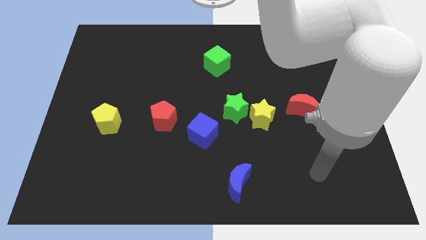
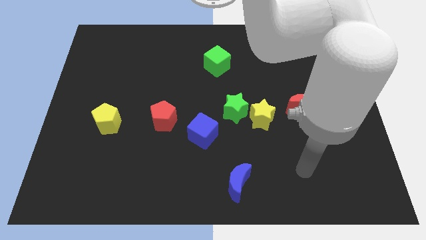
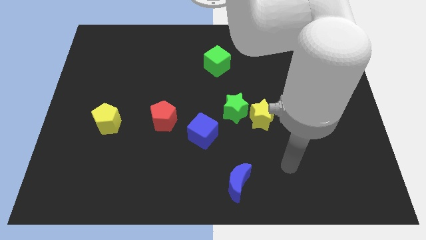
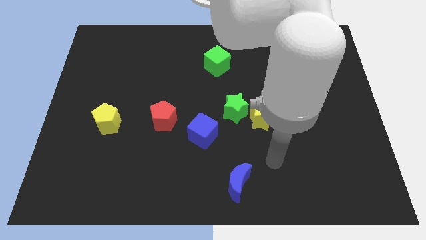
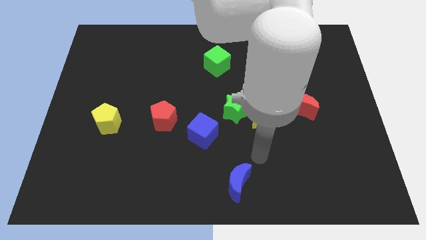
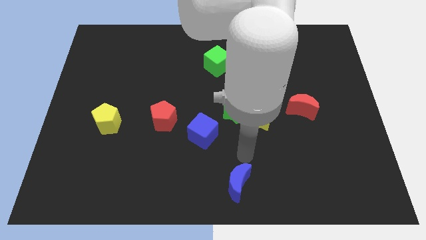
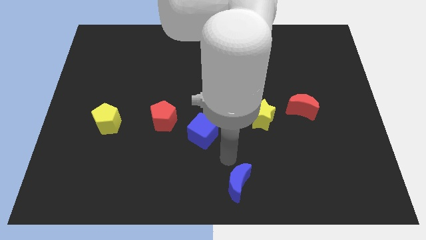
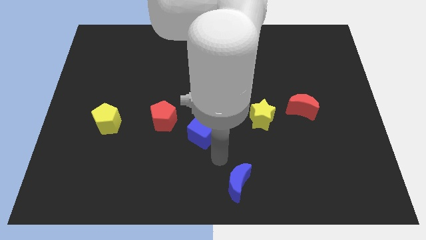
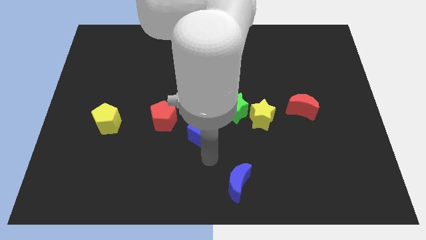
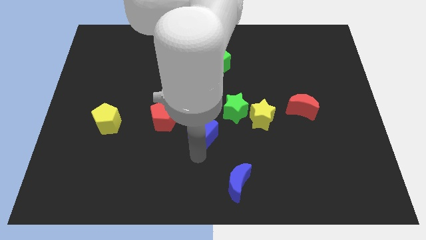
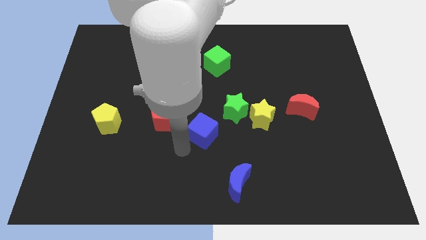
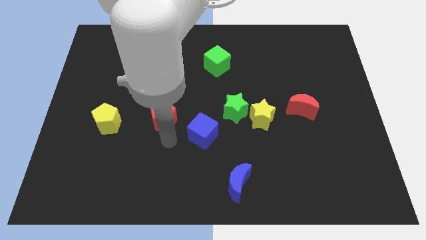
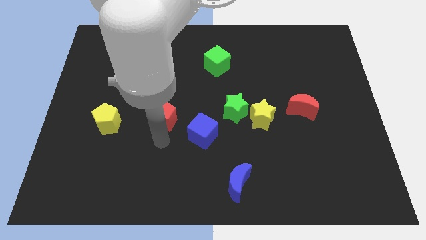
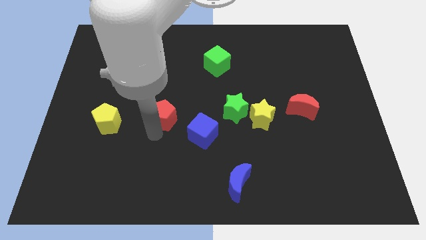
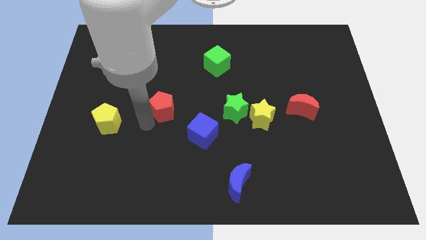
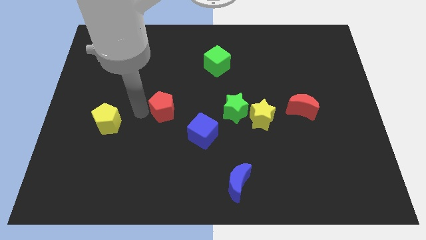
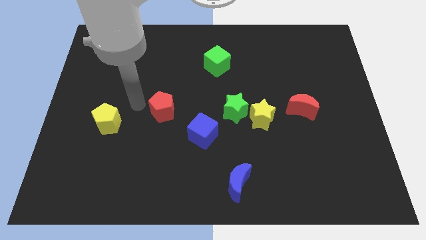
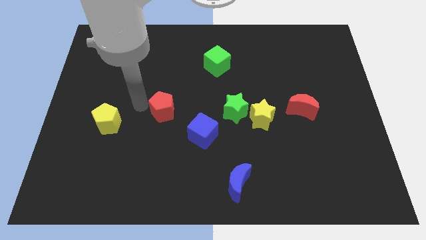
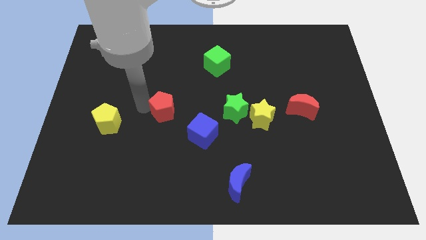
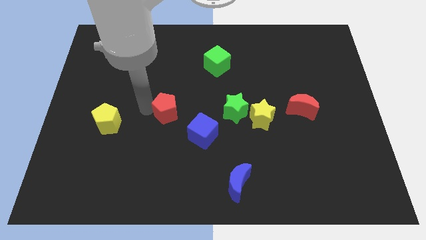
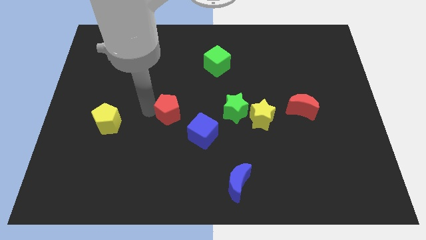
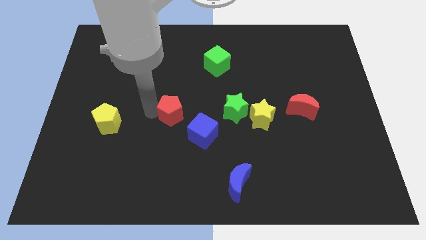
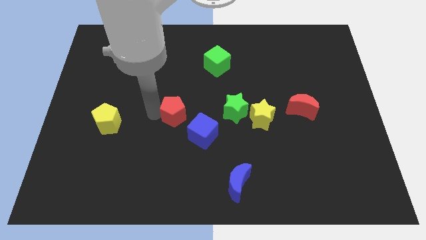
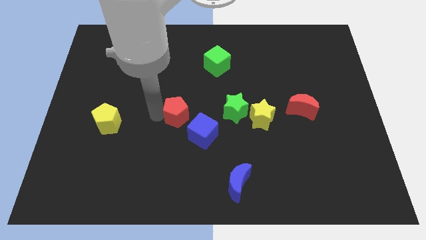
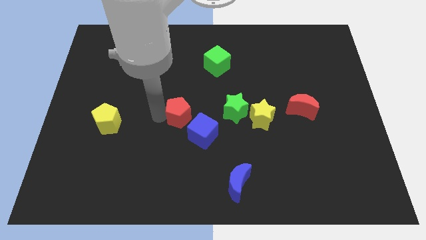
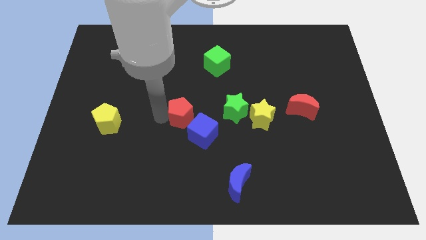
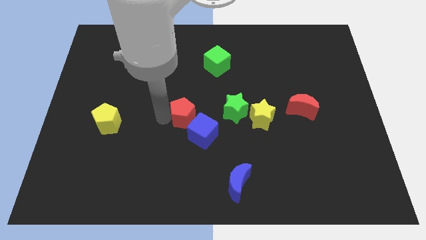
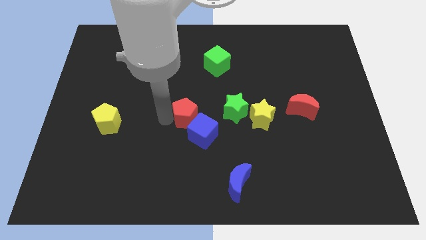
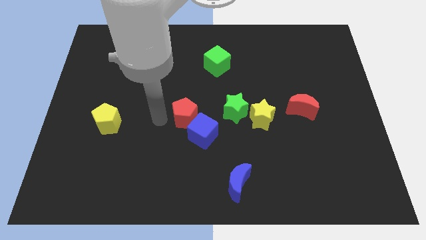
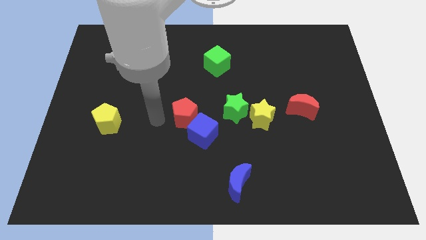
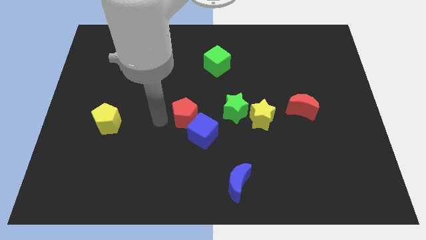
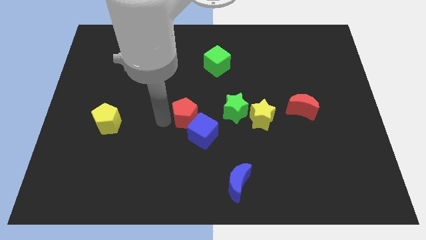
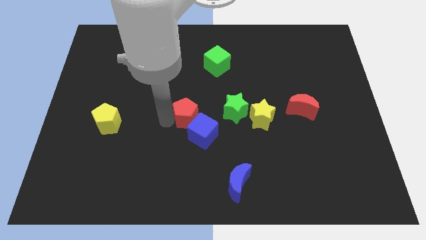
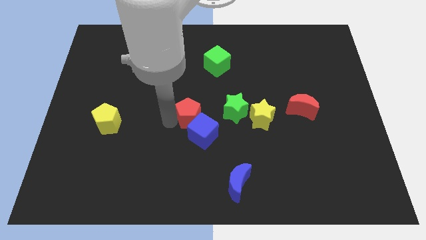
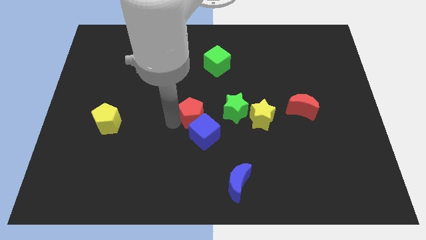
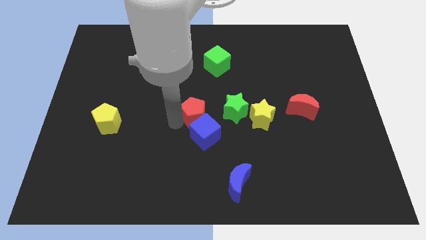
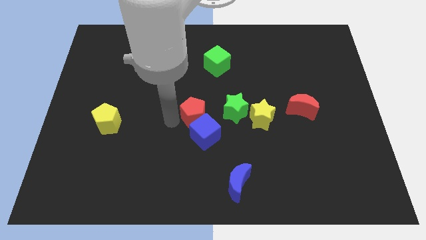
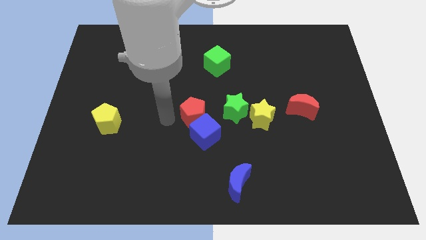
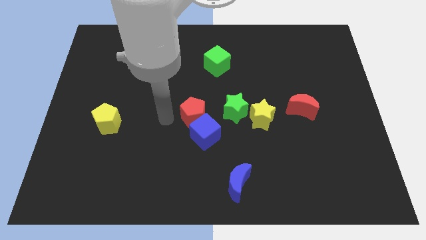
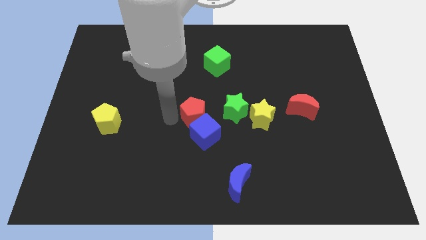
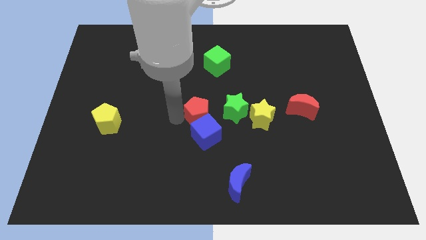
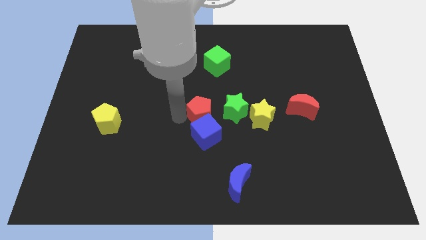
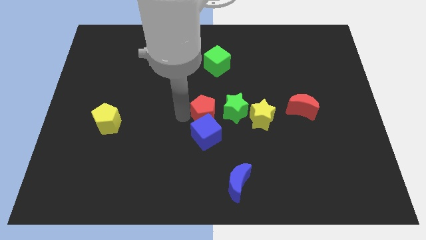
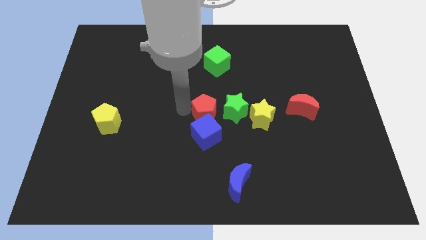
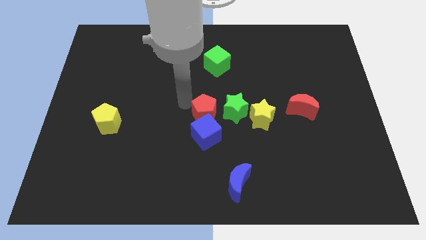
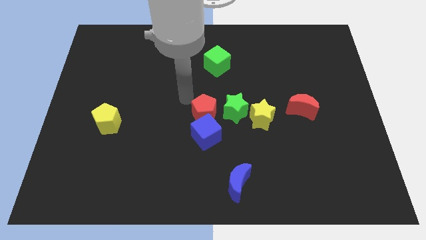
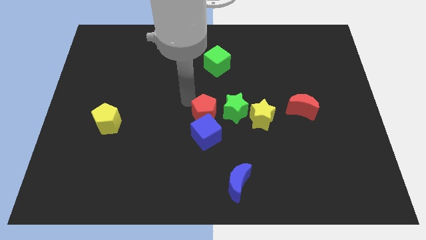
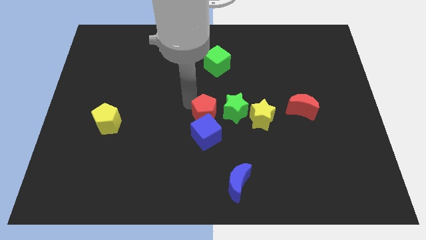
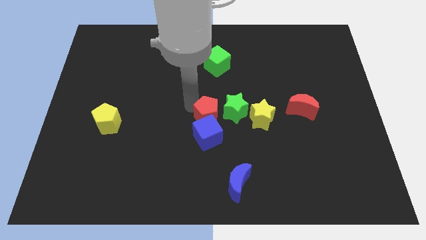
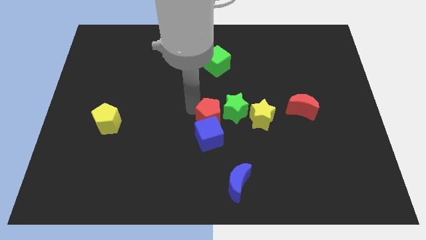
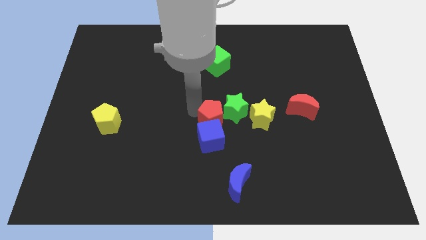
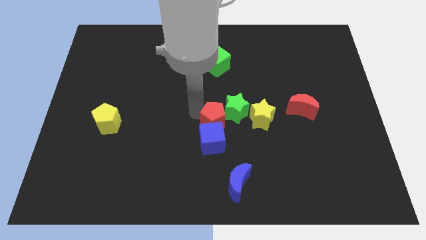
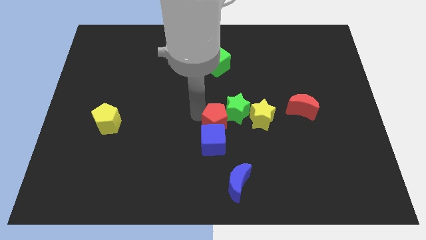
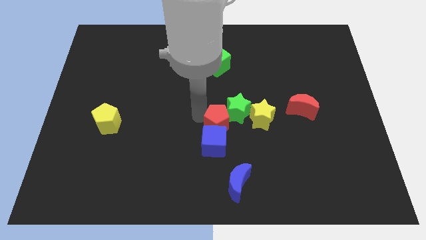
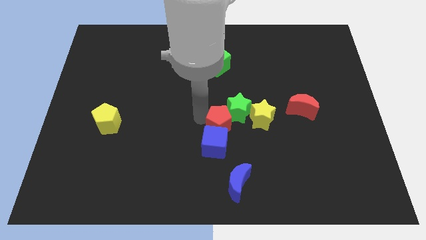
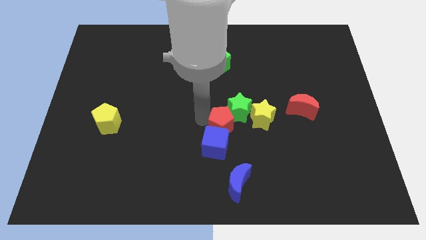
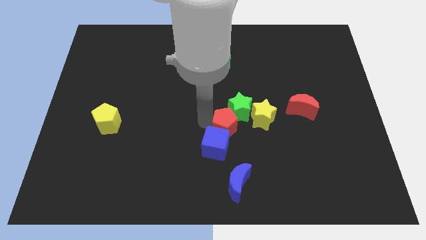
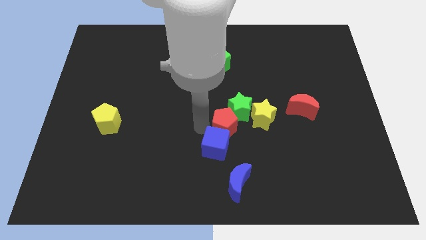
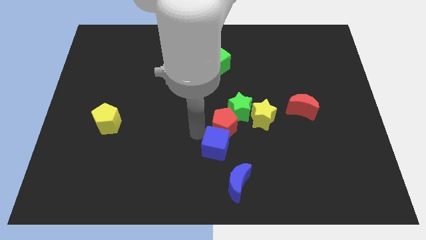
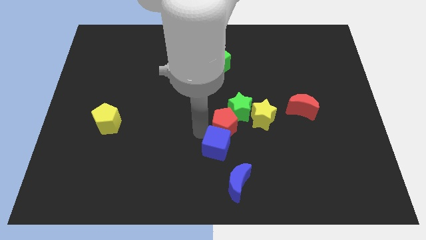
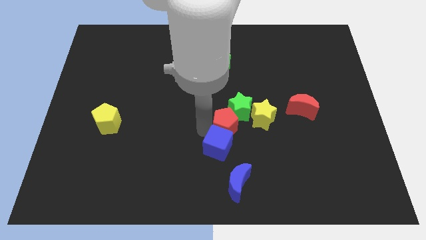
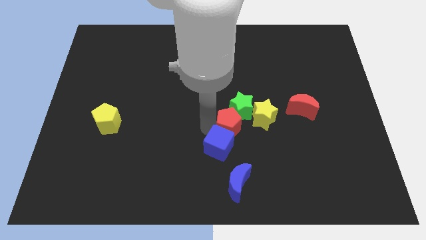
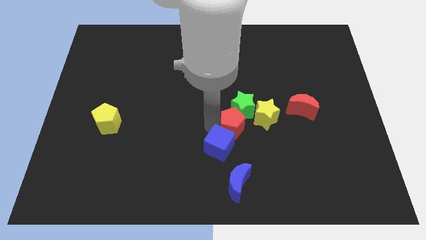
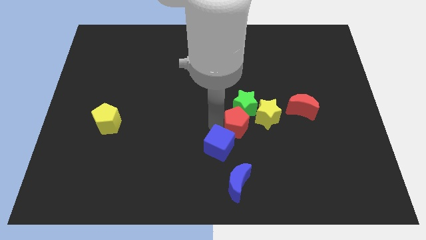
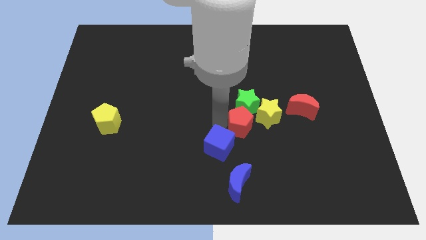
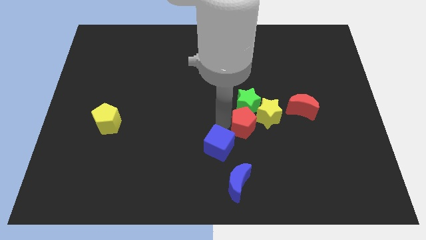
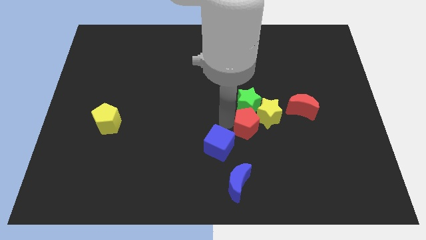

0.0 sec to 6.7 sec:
put the red pentagon next to the yellow star
